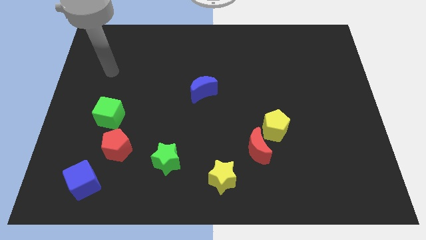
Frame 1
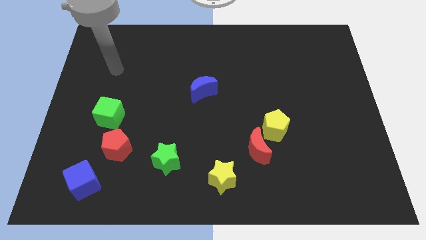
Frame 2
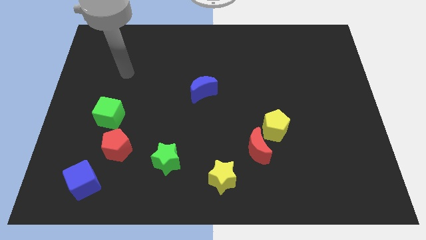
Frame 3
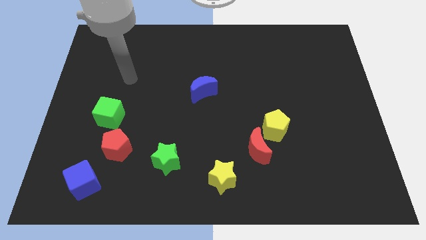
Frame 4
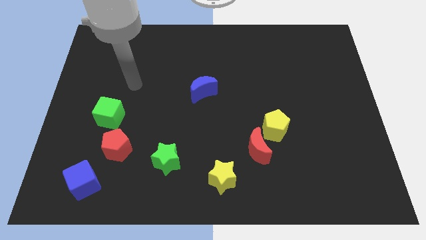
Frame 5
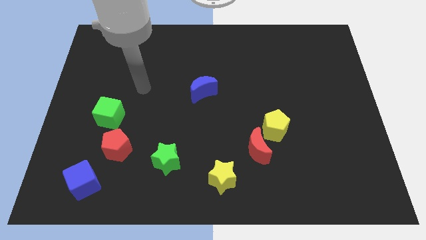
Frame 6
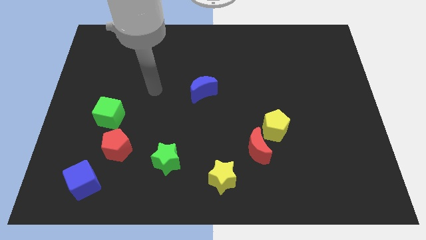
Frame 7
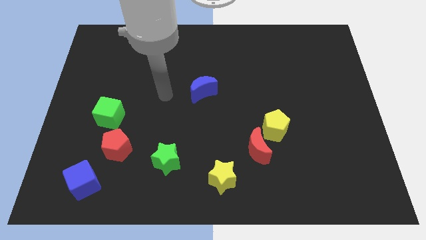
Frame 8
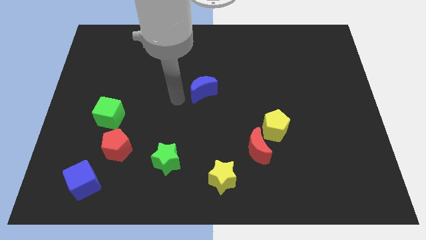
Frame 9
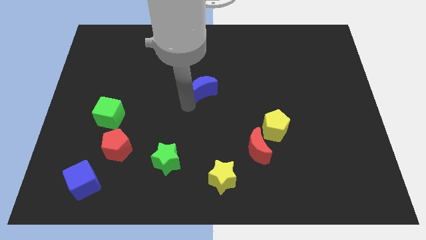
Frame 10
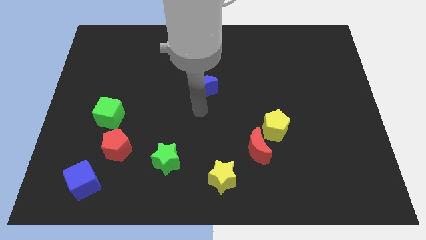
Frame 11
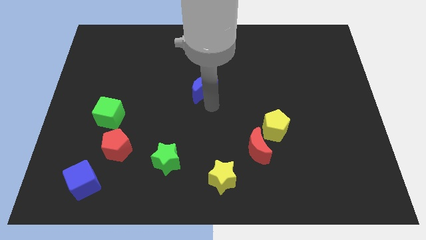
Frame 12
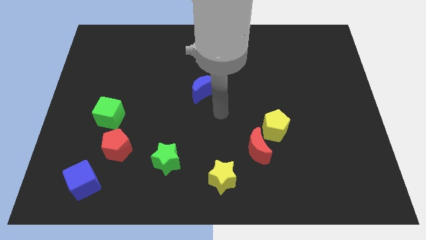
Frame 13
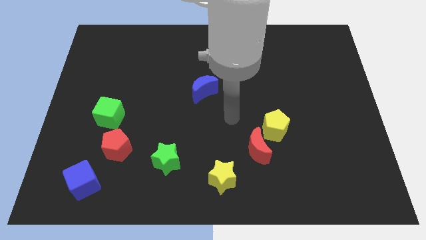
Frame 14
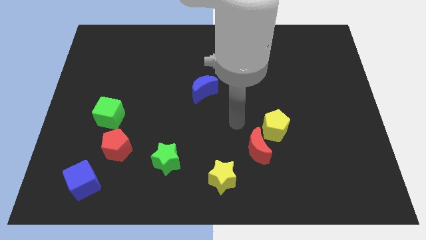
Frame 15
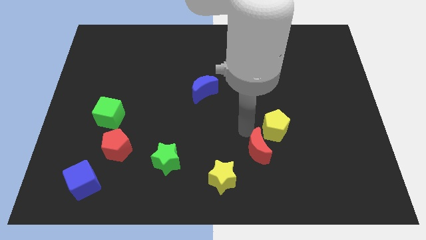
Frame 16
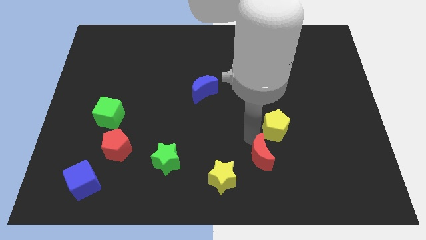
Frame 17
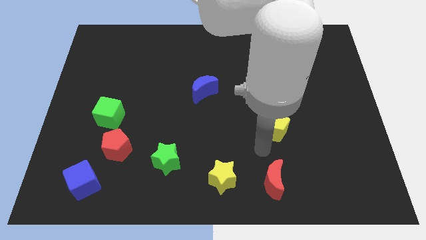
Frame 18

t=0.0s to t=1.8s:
move the yellow pentagon away from the red moon

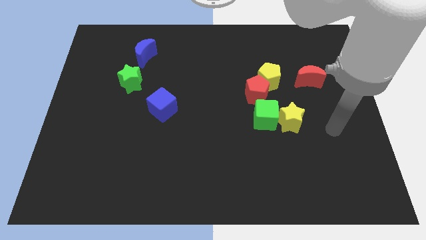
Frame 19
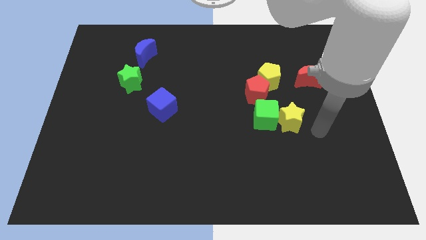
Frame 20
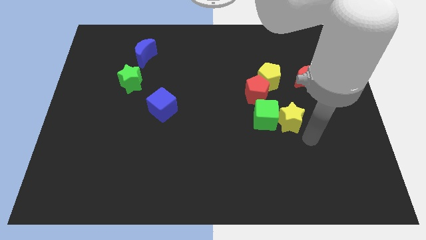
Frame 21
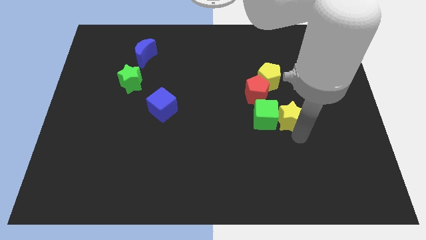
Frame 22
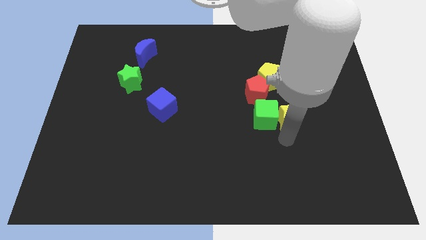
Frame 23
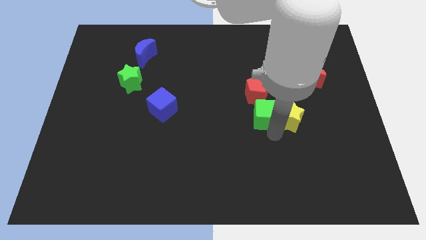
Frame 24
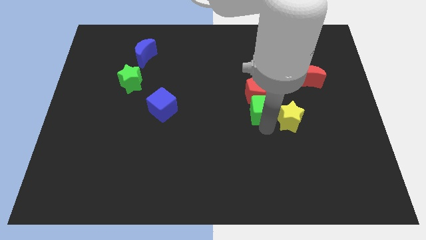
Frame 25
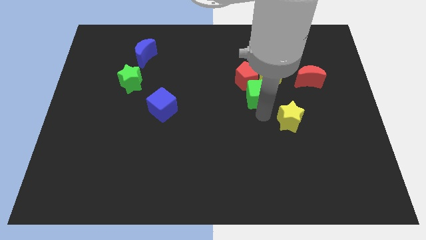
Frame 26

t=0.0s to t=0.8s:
separate the yellow star from the green cube

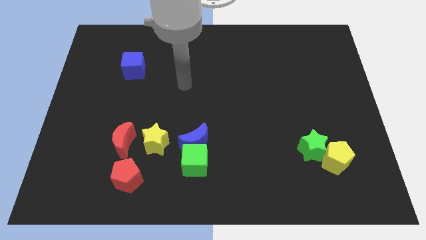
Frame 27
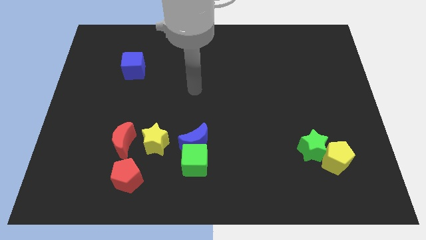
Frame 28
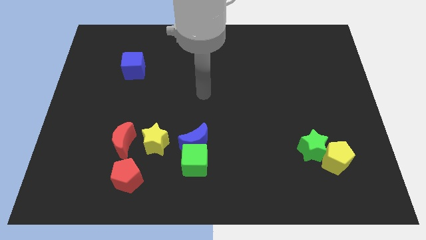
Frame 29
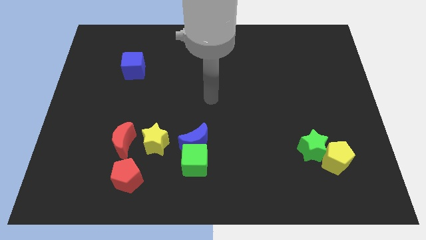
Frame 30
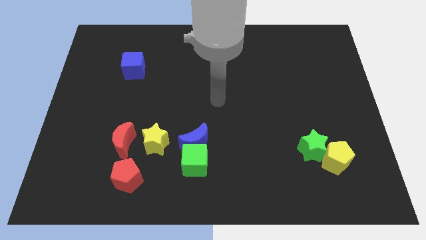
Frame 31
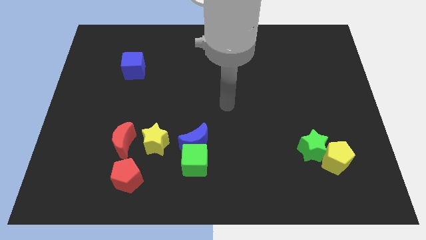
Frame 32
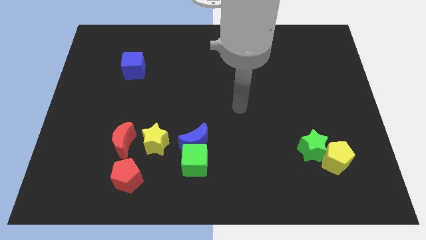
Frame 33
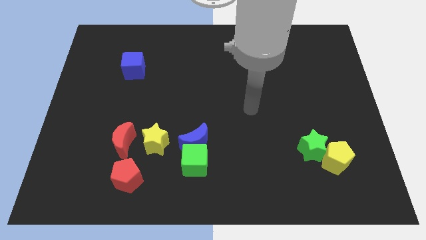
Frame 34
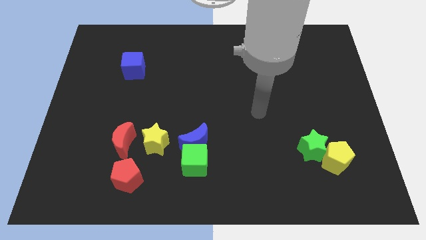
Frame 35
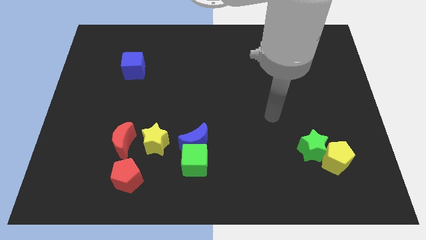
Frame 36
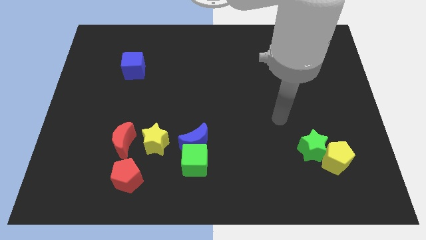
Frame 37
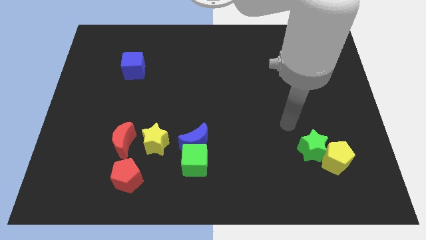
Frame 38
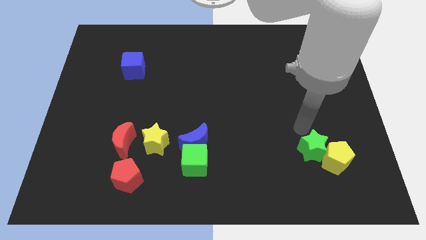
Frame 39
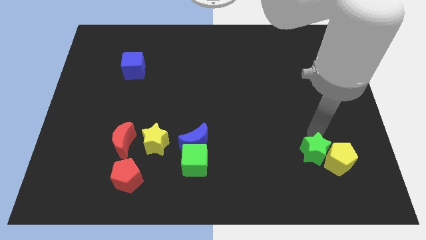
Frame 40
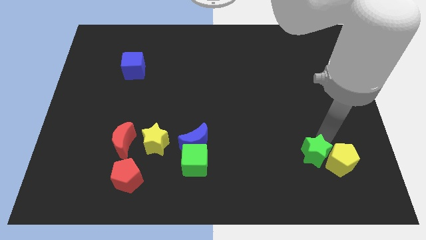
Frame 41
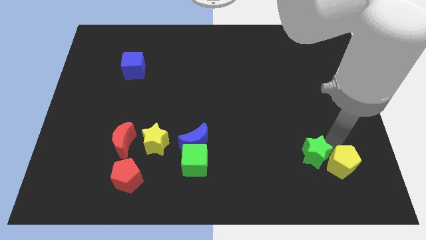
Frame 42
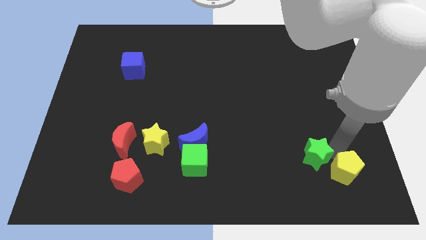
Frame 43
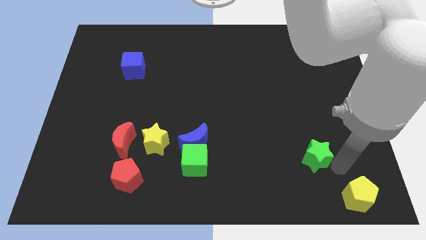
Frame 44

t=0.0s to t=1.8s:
separate the green star from the yellow pentagon

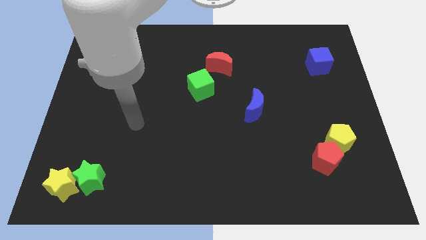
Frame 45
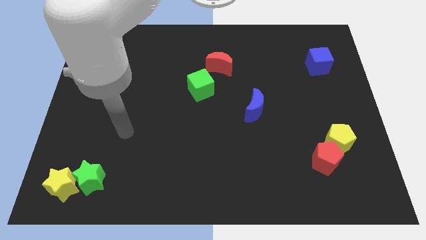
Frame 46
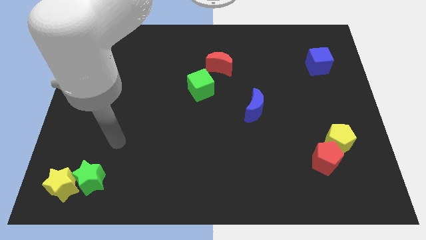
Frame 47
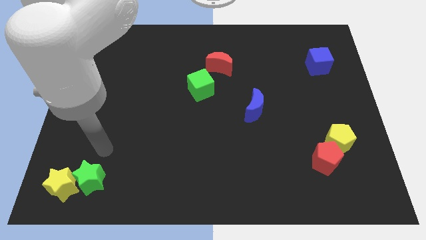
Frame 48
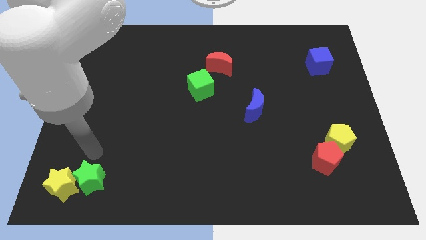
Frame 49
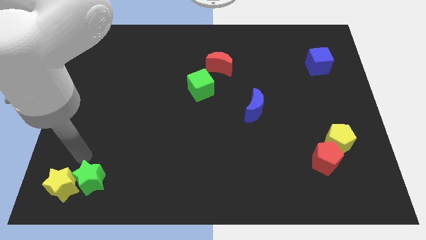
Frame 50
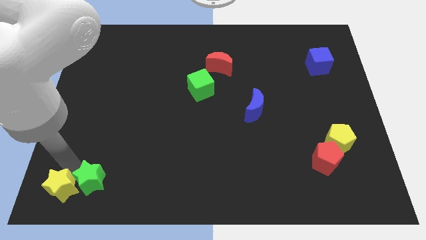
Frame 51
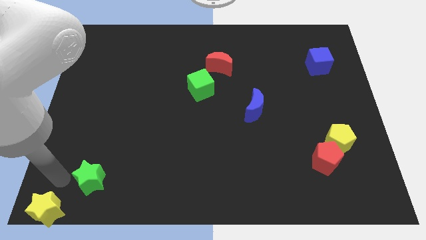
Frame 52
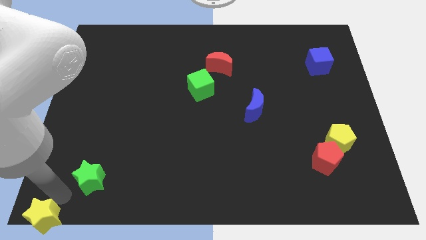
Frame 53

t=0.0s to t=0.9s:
separate the green star from the yellow star

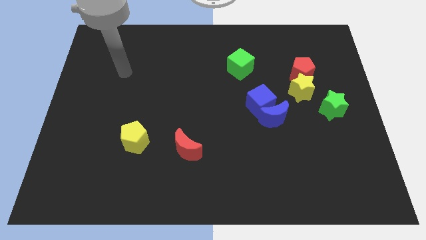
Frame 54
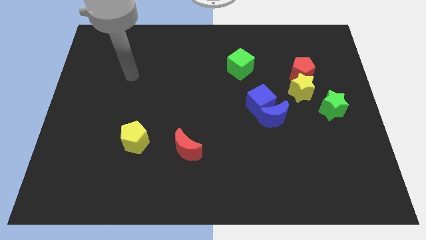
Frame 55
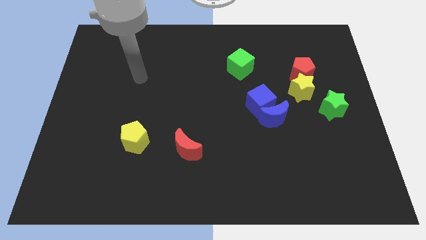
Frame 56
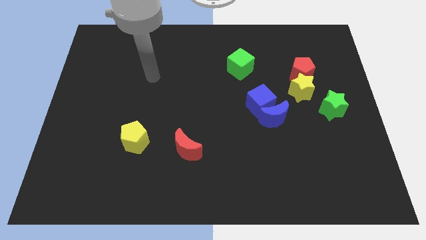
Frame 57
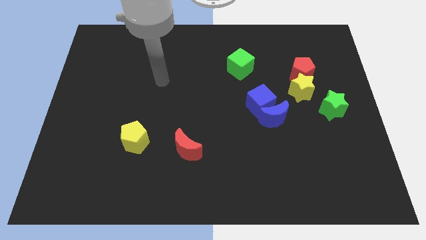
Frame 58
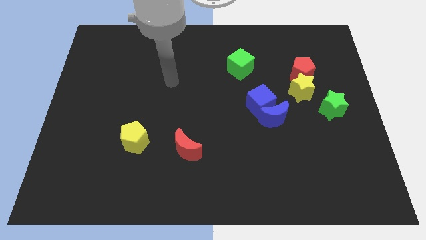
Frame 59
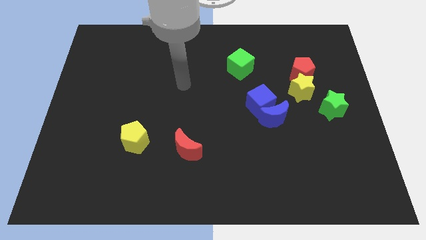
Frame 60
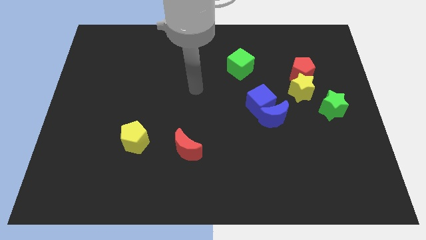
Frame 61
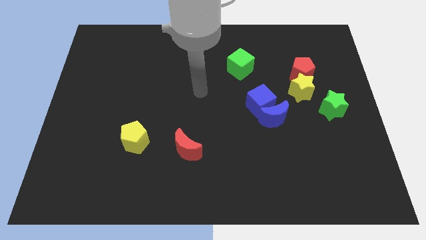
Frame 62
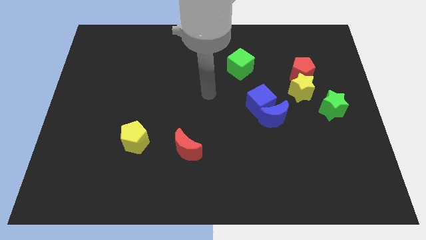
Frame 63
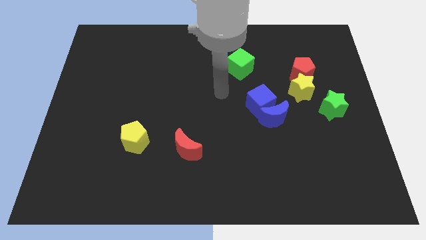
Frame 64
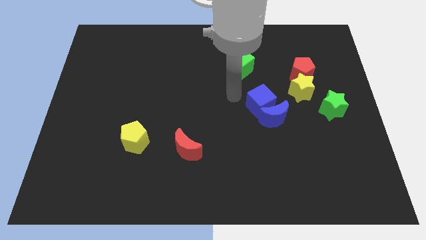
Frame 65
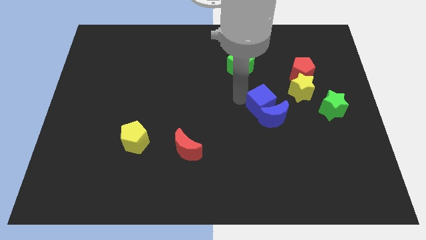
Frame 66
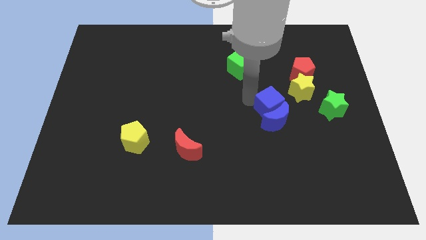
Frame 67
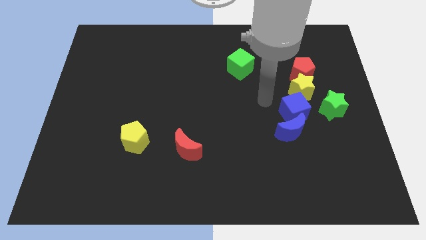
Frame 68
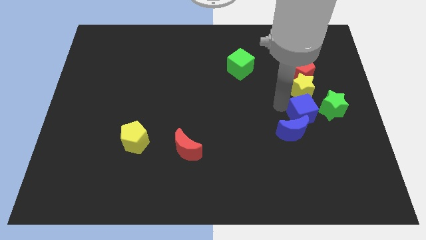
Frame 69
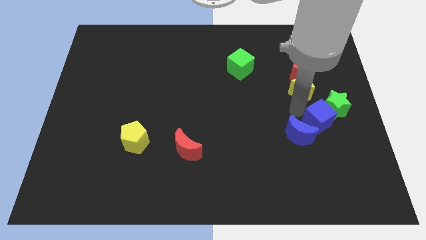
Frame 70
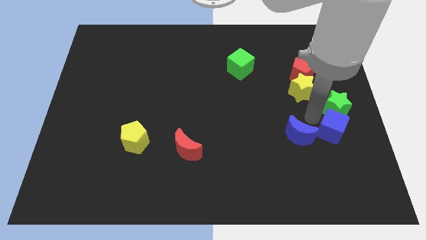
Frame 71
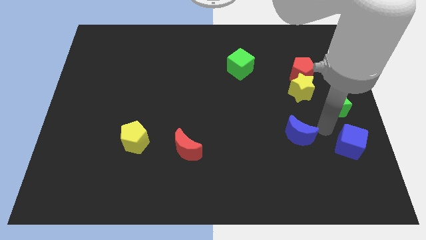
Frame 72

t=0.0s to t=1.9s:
separate the blue moon from the blue cube

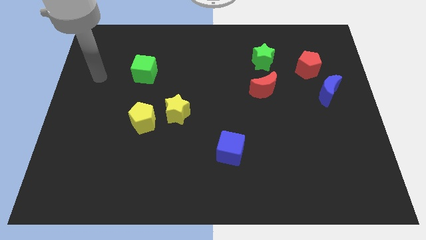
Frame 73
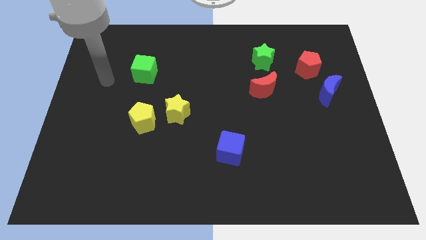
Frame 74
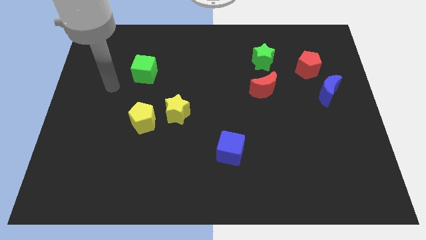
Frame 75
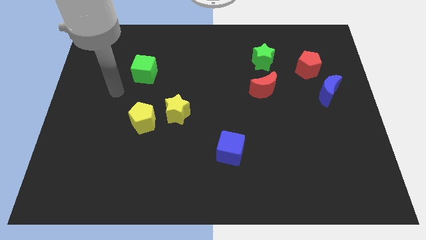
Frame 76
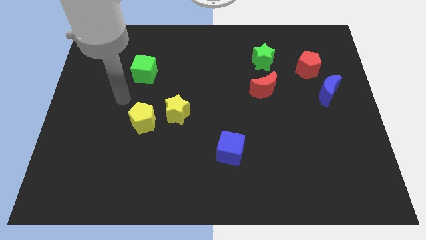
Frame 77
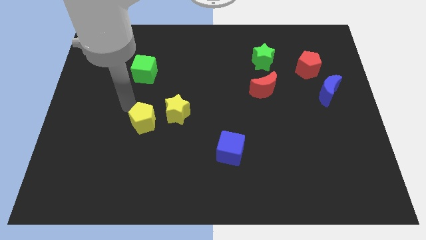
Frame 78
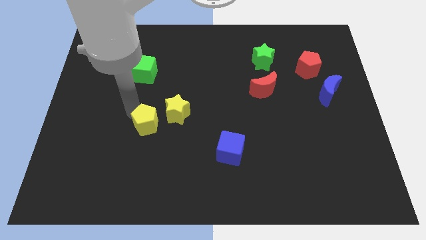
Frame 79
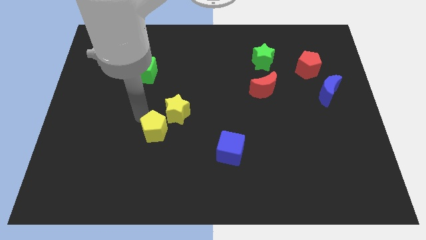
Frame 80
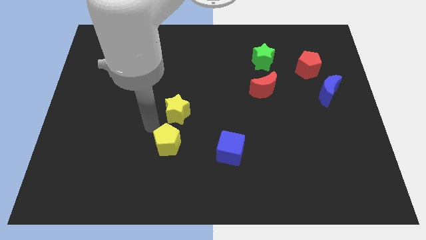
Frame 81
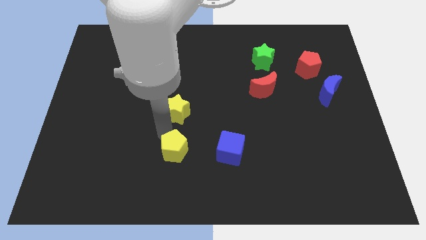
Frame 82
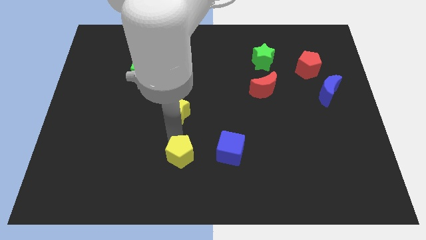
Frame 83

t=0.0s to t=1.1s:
move the yellow star away from the yellow pentagon

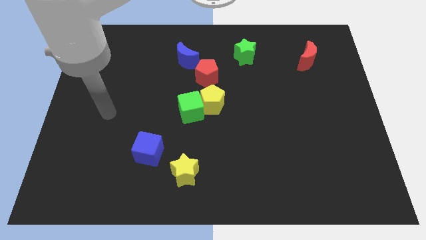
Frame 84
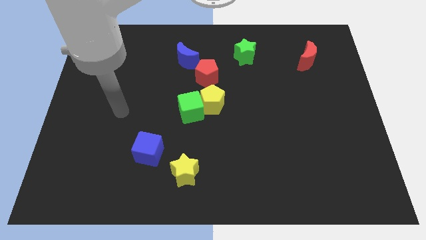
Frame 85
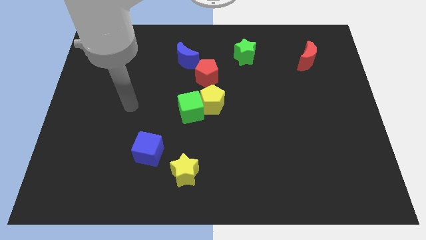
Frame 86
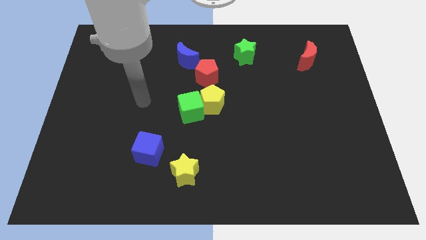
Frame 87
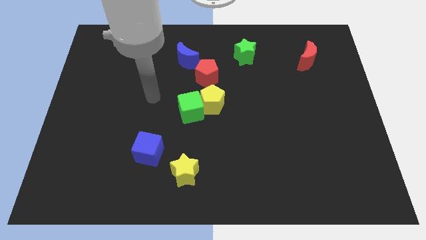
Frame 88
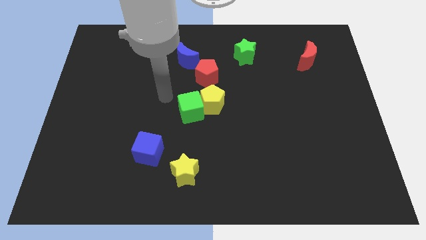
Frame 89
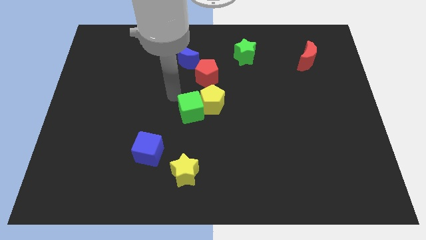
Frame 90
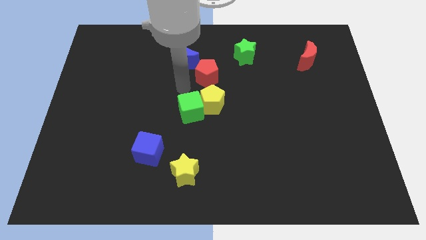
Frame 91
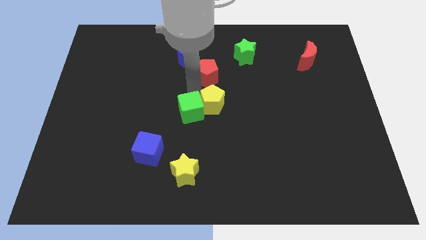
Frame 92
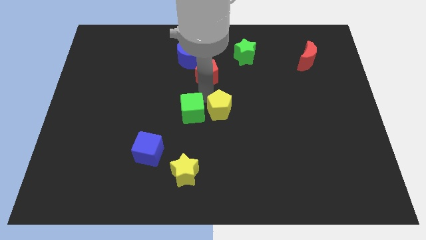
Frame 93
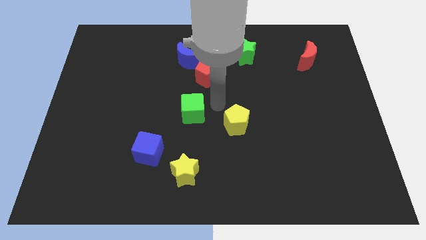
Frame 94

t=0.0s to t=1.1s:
move the green cube away from the yellow pentagon
